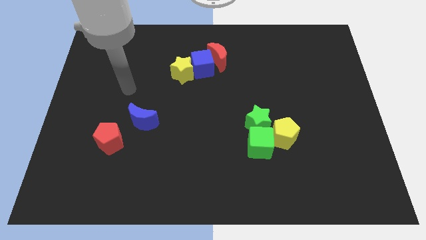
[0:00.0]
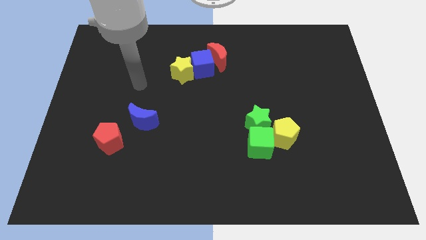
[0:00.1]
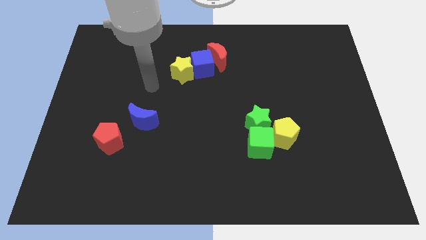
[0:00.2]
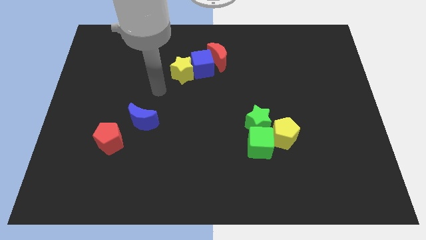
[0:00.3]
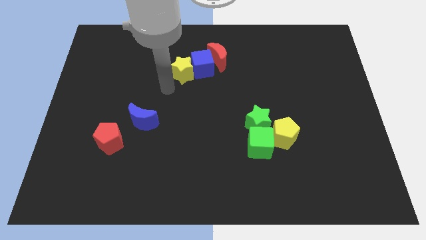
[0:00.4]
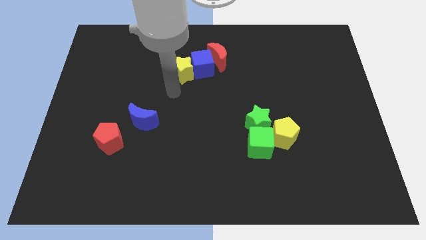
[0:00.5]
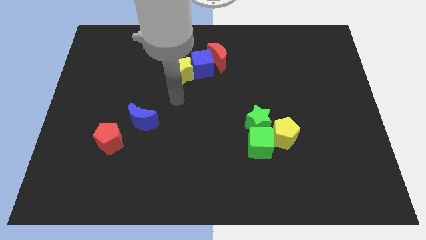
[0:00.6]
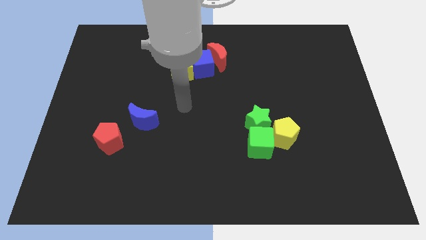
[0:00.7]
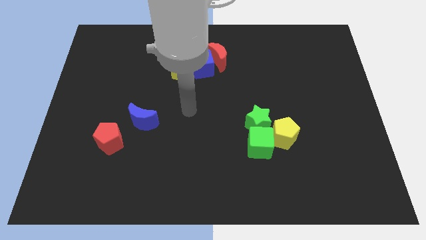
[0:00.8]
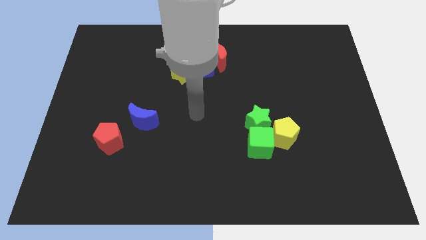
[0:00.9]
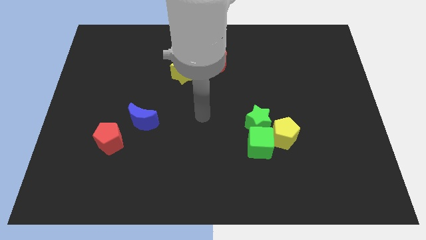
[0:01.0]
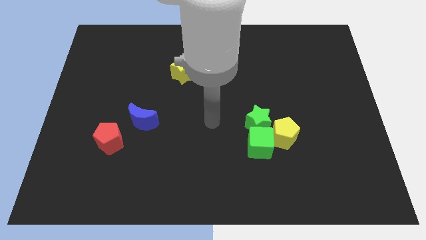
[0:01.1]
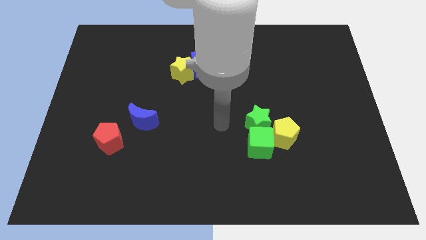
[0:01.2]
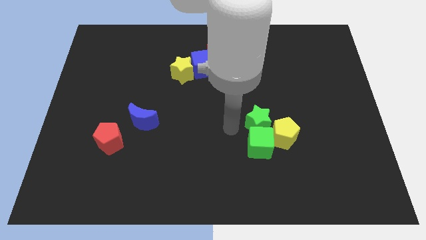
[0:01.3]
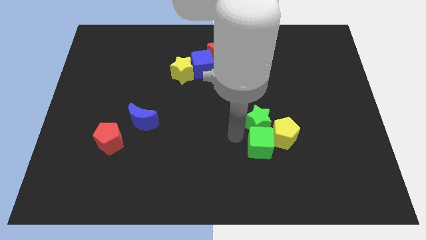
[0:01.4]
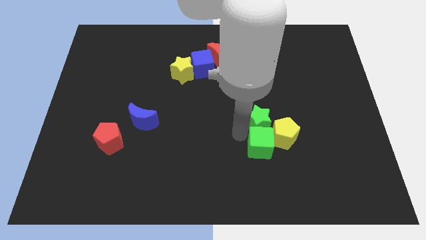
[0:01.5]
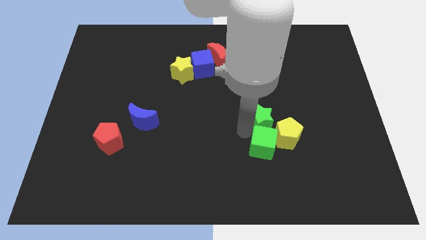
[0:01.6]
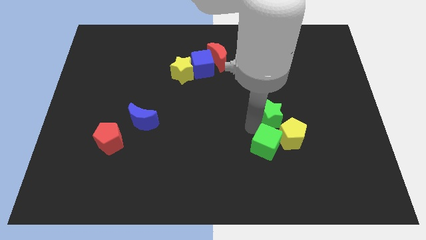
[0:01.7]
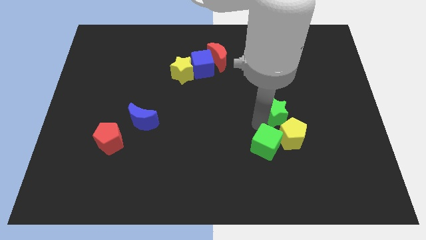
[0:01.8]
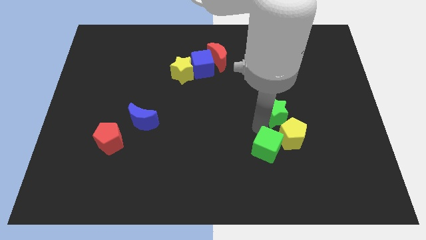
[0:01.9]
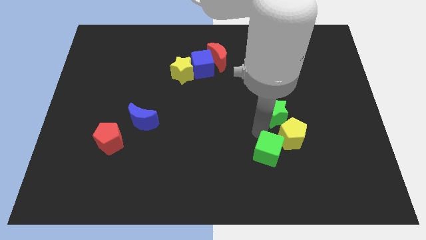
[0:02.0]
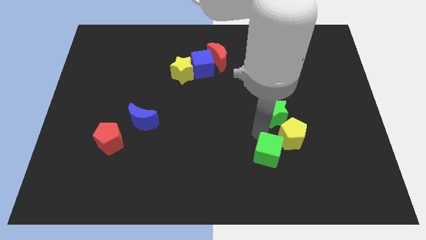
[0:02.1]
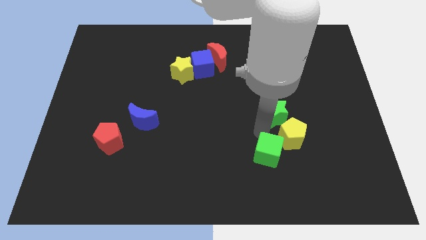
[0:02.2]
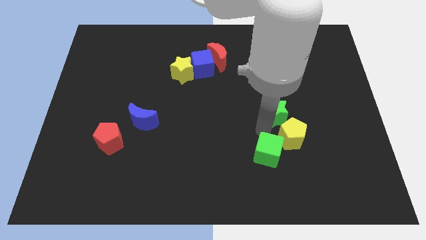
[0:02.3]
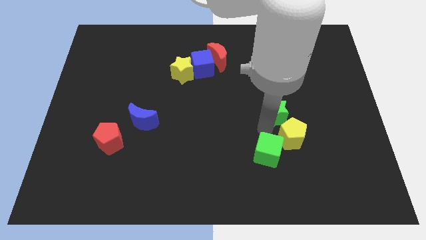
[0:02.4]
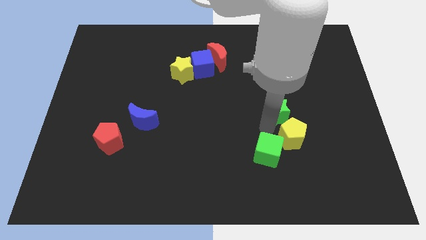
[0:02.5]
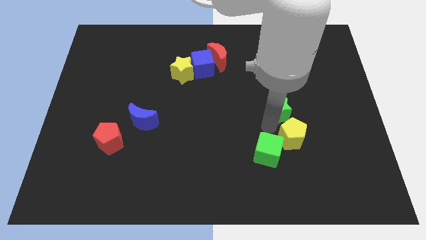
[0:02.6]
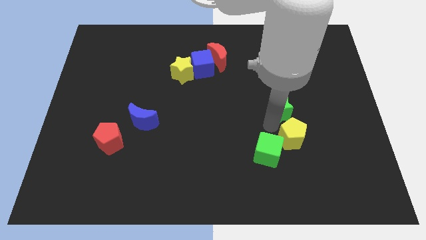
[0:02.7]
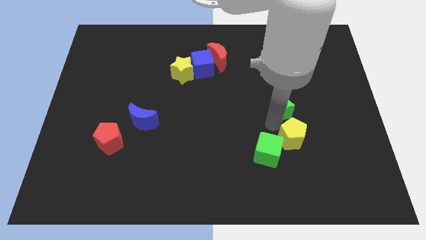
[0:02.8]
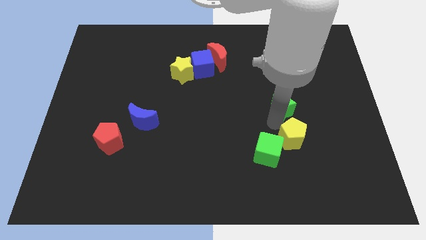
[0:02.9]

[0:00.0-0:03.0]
push the green star upwards and to the right diagonally a little

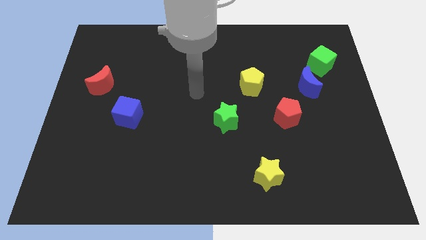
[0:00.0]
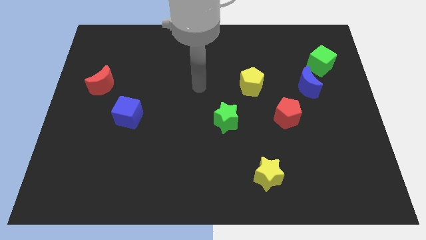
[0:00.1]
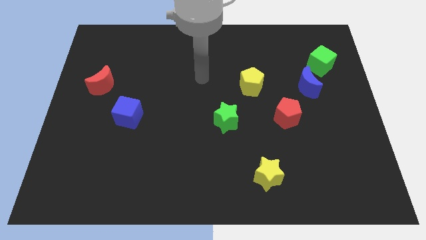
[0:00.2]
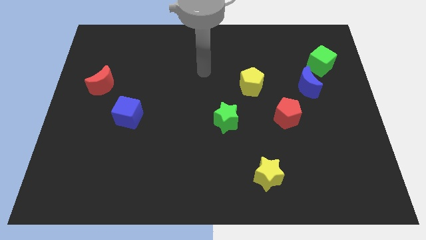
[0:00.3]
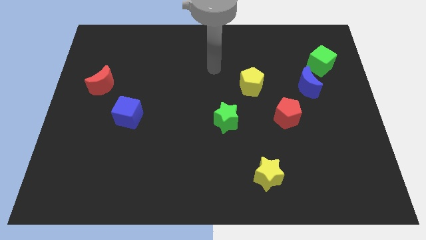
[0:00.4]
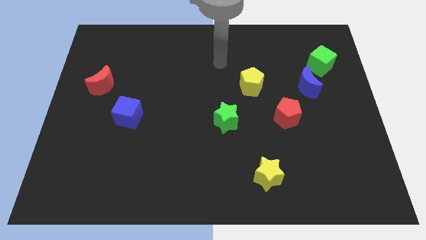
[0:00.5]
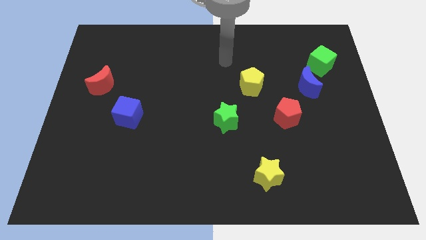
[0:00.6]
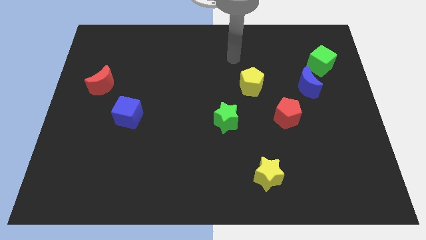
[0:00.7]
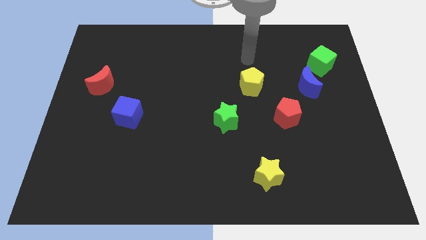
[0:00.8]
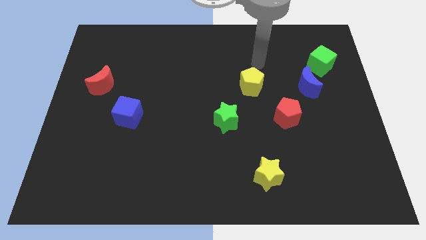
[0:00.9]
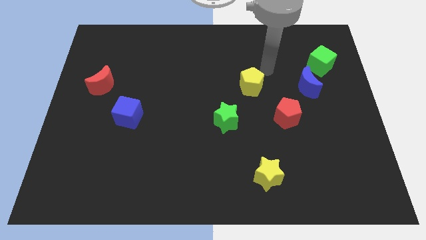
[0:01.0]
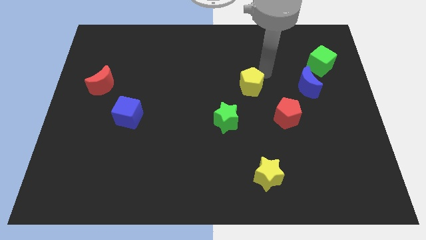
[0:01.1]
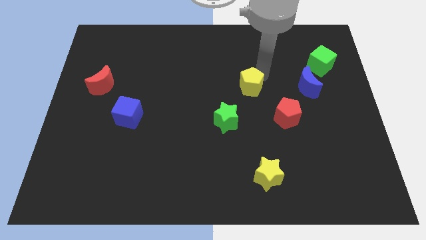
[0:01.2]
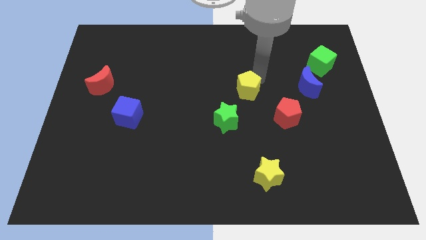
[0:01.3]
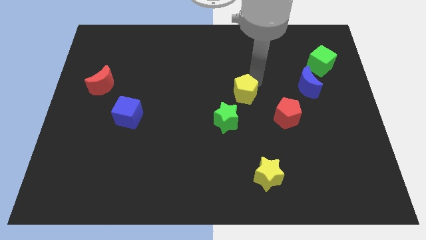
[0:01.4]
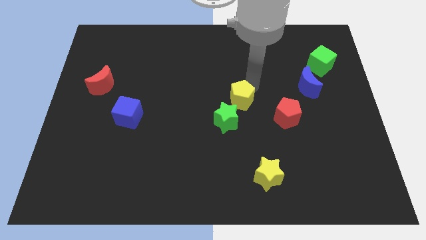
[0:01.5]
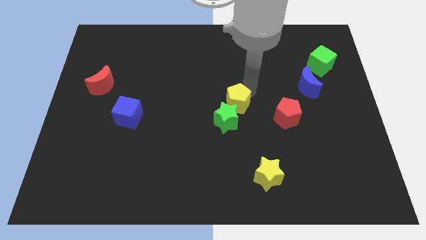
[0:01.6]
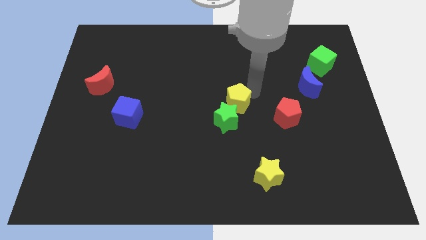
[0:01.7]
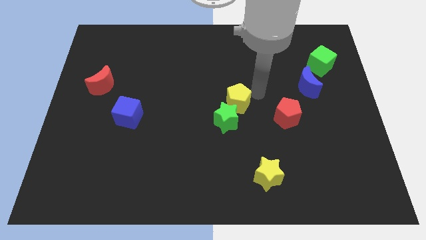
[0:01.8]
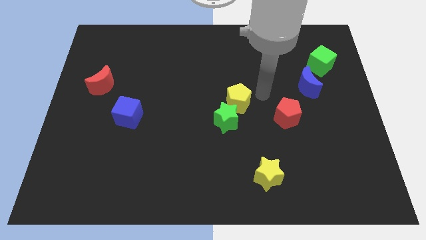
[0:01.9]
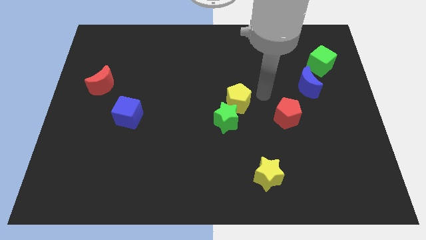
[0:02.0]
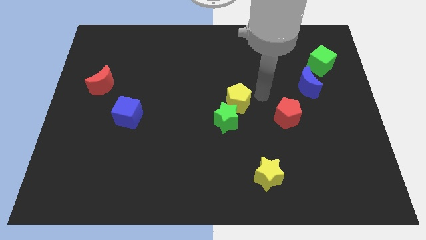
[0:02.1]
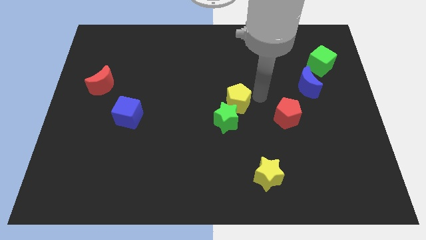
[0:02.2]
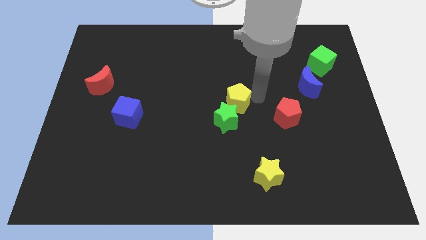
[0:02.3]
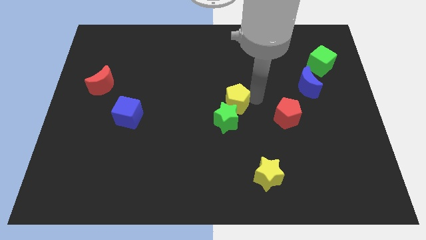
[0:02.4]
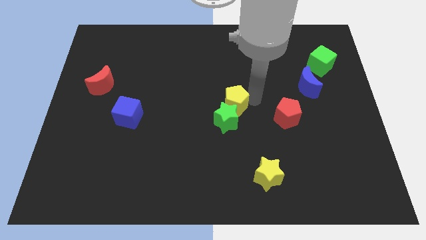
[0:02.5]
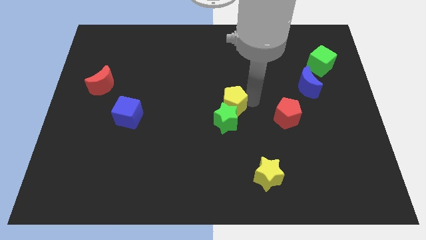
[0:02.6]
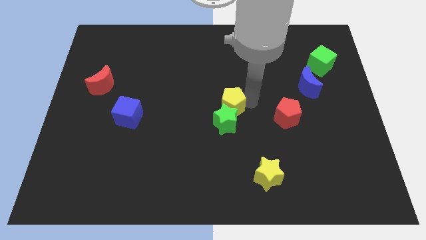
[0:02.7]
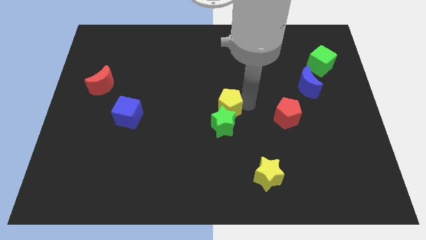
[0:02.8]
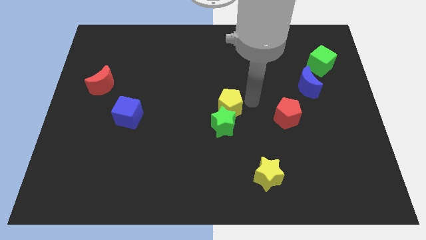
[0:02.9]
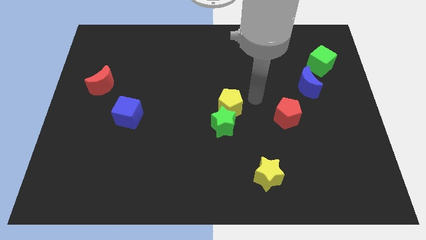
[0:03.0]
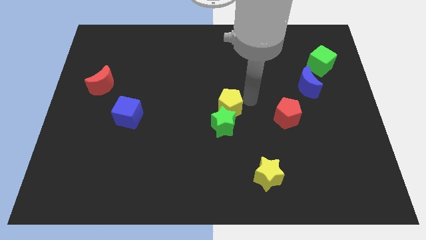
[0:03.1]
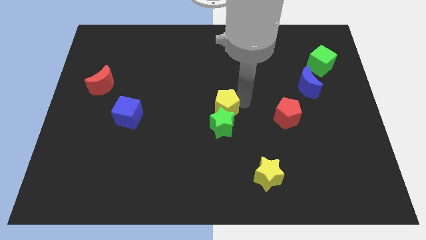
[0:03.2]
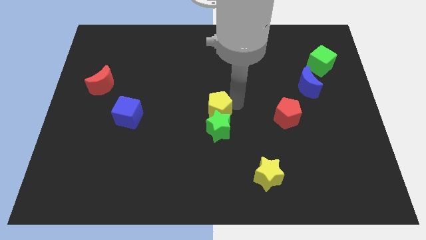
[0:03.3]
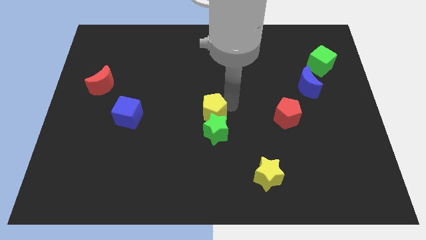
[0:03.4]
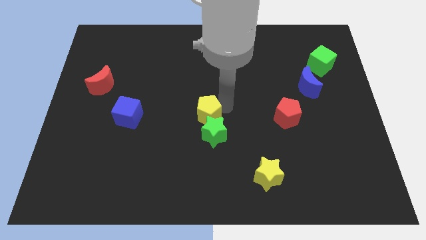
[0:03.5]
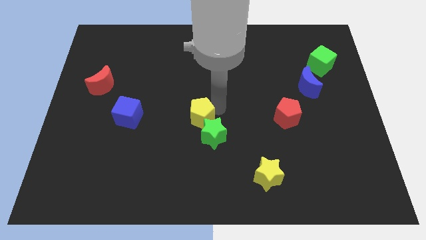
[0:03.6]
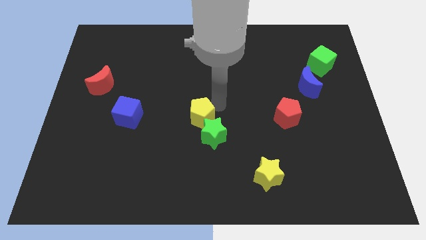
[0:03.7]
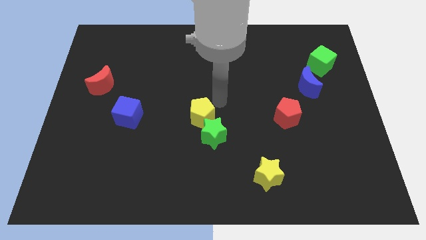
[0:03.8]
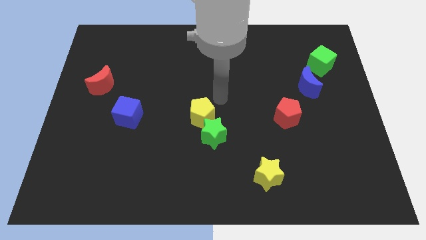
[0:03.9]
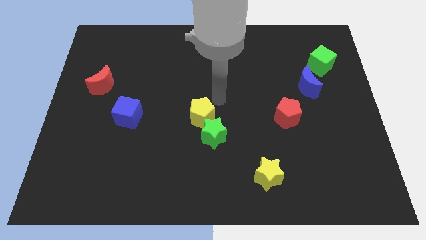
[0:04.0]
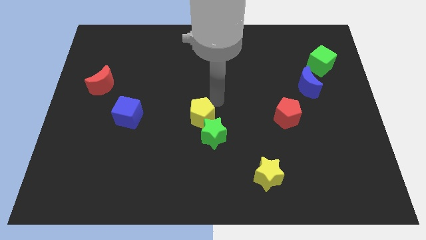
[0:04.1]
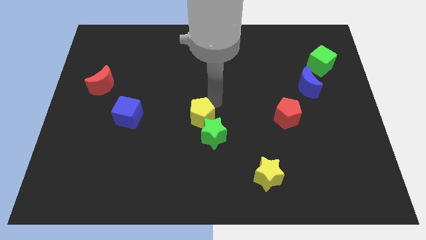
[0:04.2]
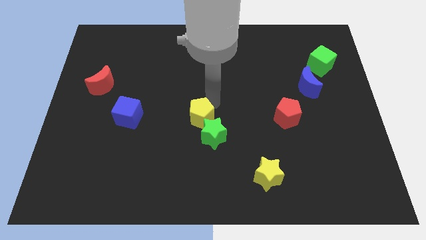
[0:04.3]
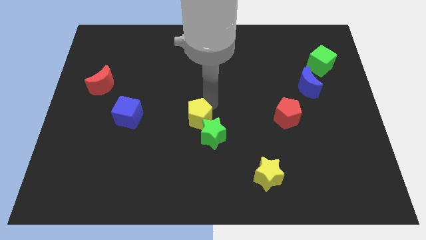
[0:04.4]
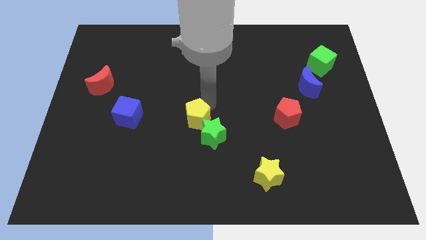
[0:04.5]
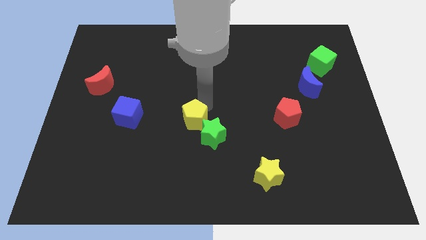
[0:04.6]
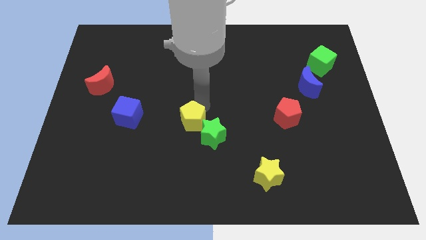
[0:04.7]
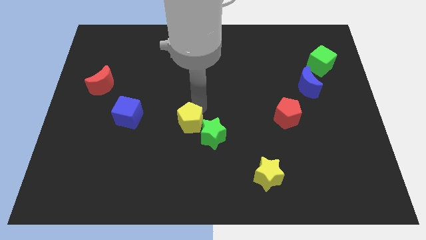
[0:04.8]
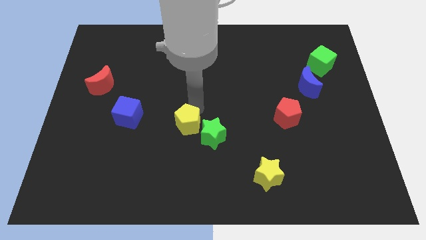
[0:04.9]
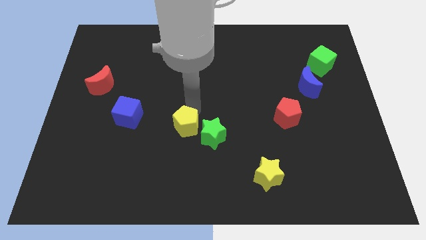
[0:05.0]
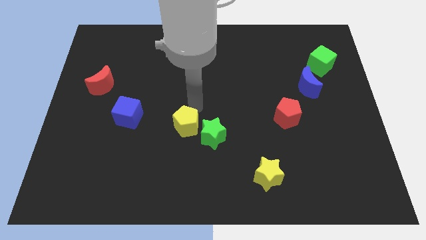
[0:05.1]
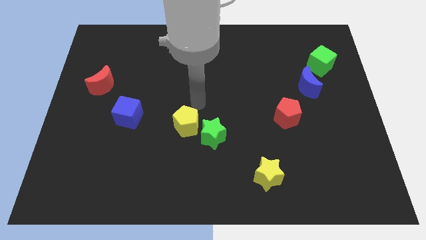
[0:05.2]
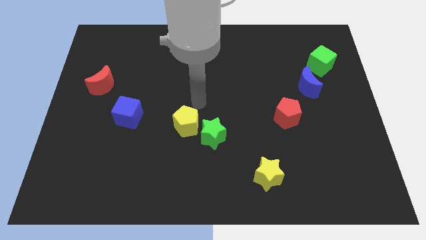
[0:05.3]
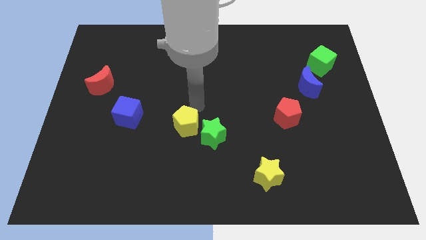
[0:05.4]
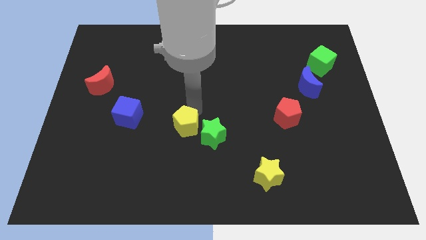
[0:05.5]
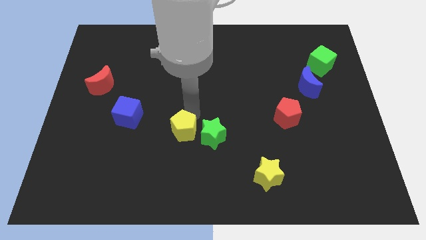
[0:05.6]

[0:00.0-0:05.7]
move the yellow pentagon diagonally down and to the left
